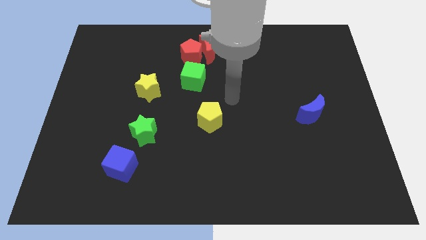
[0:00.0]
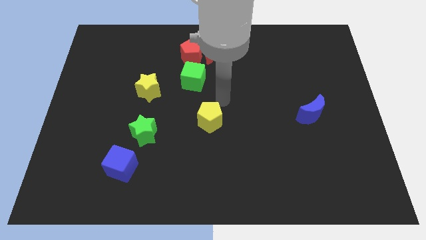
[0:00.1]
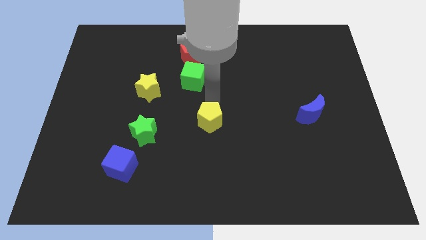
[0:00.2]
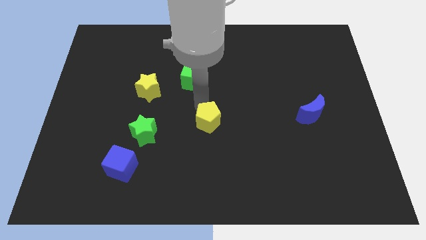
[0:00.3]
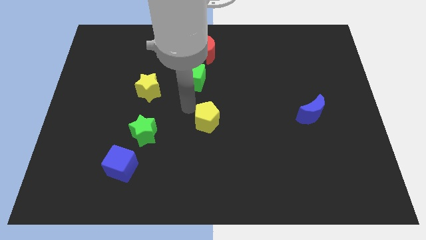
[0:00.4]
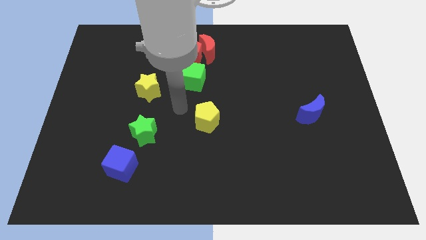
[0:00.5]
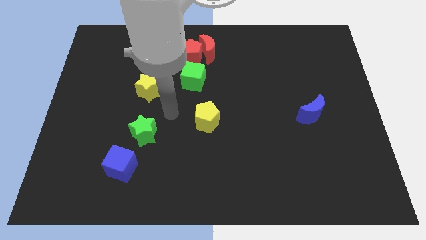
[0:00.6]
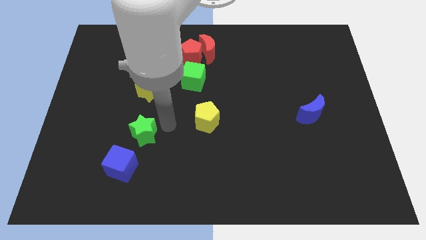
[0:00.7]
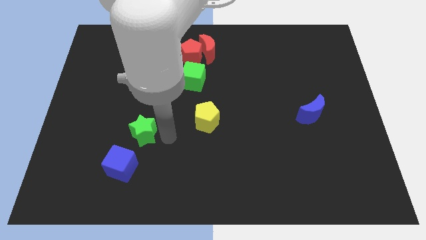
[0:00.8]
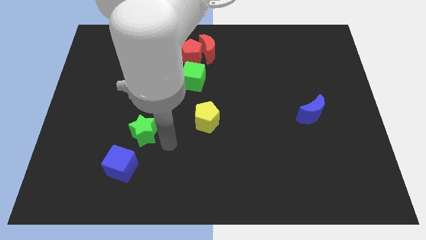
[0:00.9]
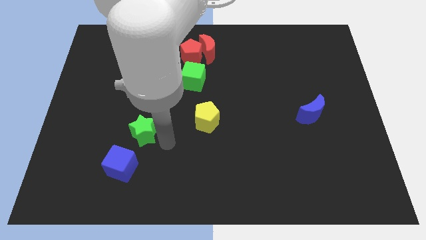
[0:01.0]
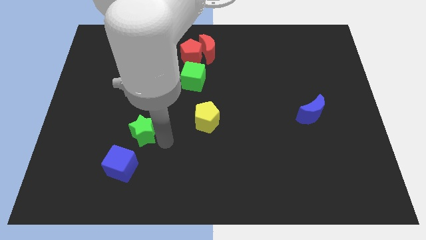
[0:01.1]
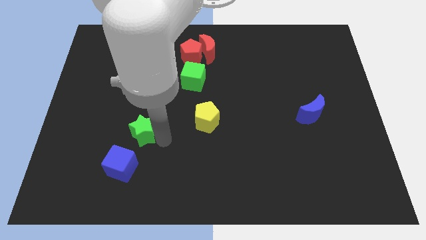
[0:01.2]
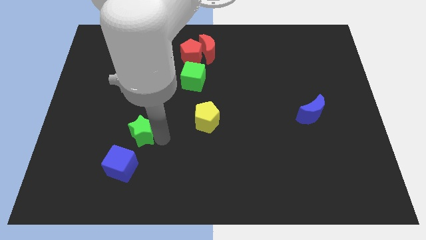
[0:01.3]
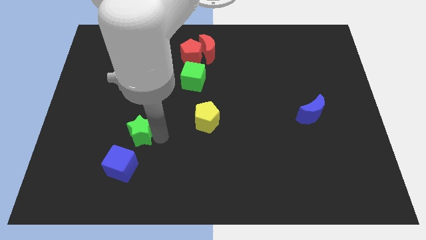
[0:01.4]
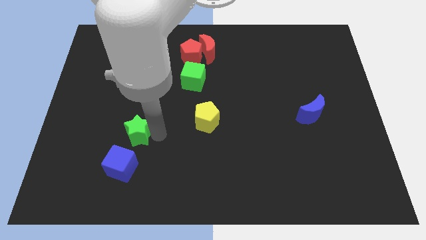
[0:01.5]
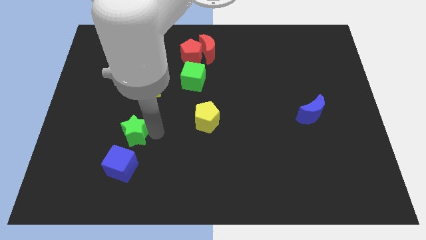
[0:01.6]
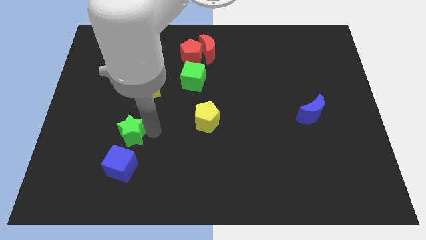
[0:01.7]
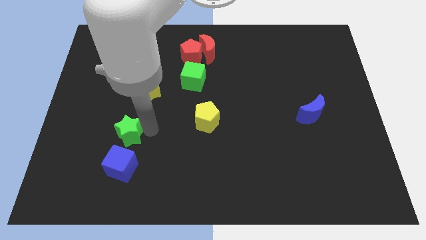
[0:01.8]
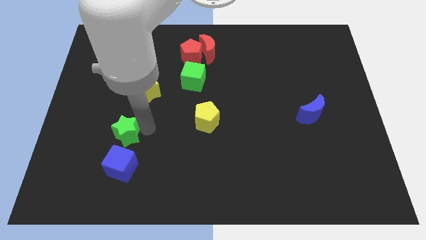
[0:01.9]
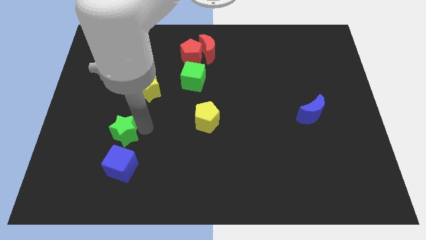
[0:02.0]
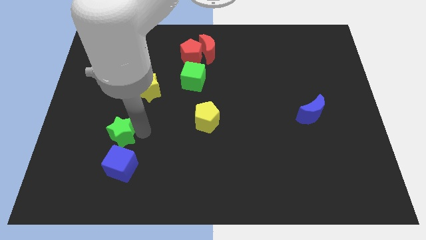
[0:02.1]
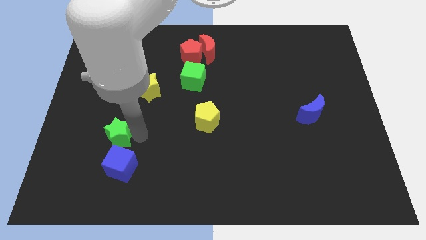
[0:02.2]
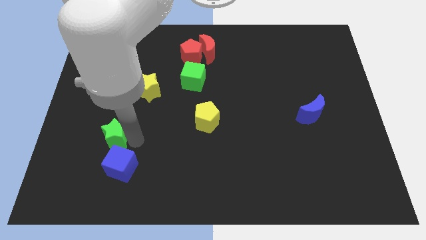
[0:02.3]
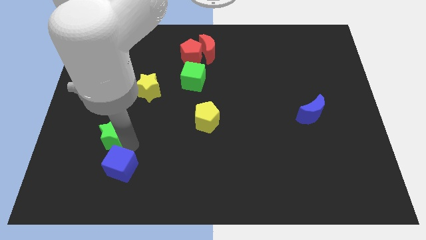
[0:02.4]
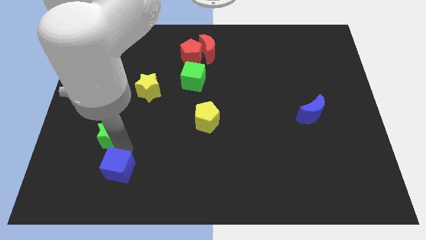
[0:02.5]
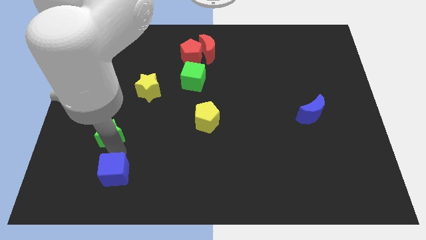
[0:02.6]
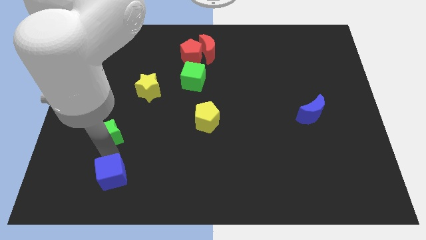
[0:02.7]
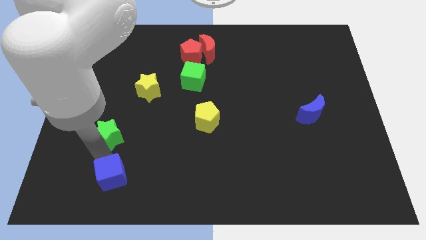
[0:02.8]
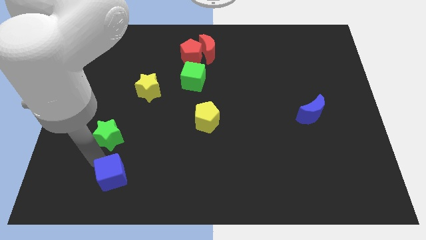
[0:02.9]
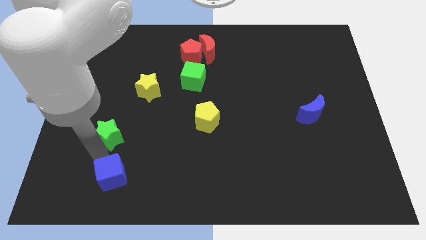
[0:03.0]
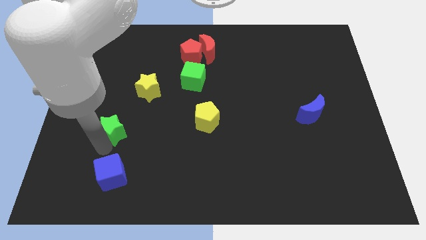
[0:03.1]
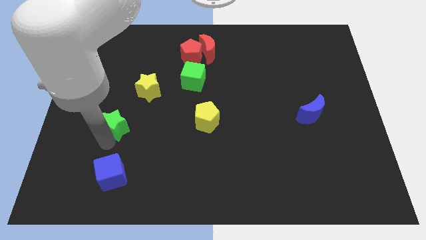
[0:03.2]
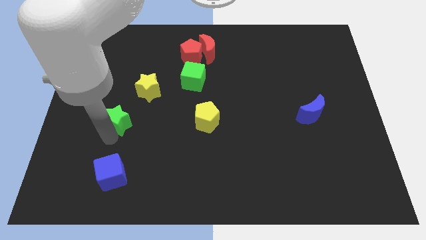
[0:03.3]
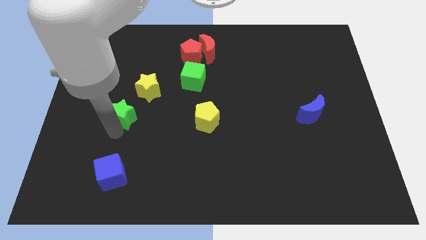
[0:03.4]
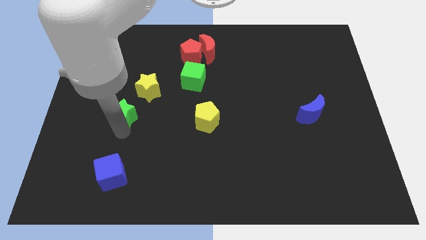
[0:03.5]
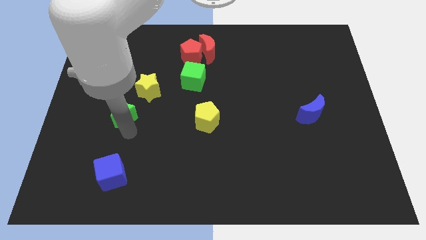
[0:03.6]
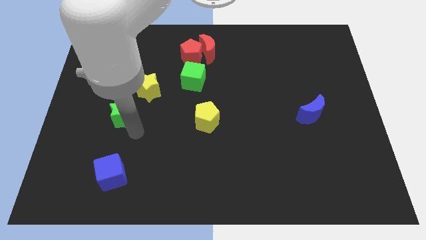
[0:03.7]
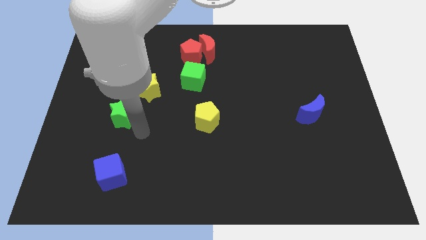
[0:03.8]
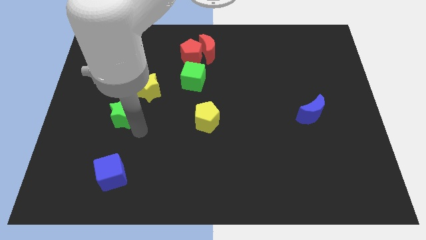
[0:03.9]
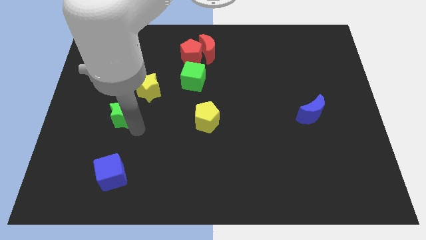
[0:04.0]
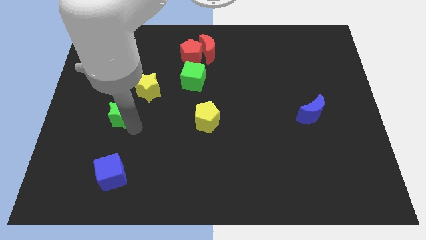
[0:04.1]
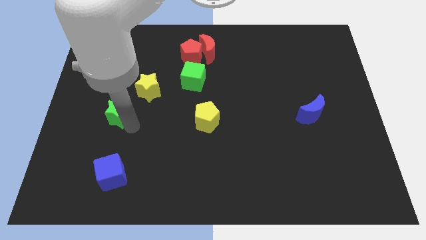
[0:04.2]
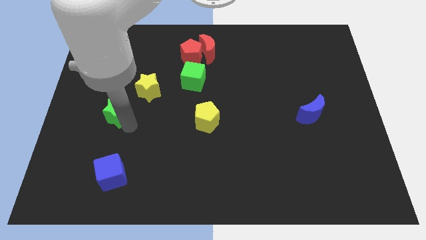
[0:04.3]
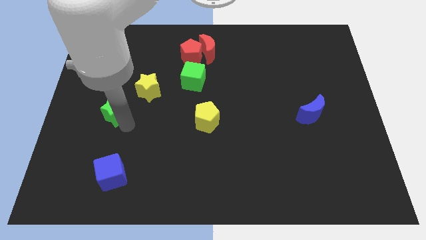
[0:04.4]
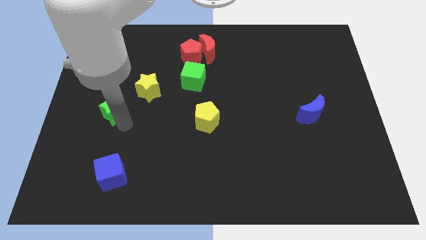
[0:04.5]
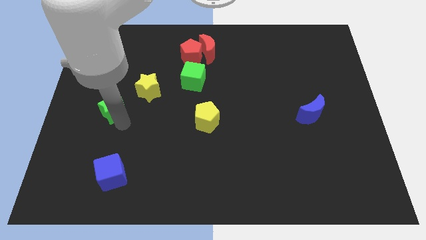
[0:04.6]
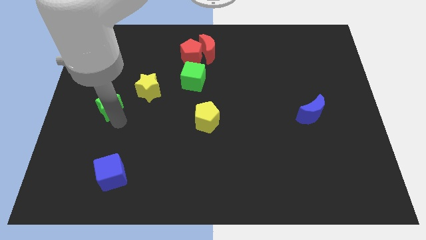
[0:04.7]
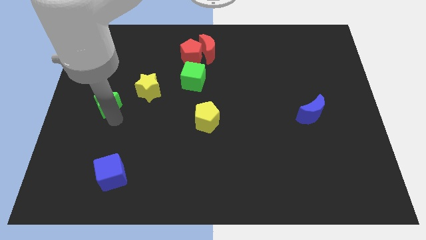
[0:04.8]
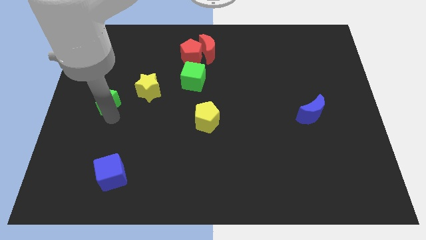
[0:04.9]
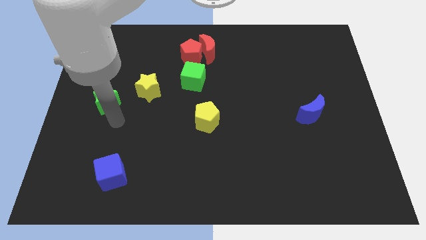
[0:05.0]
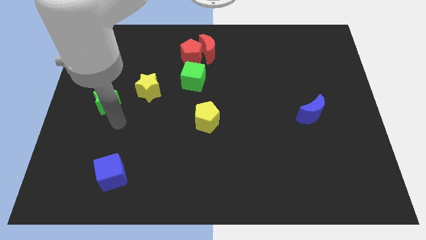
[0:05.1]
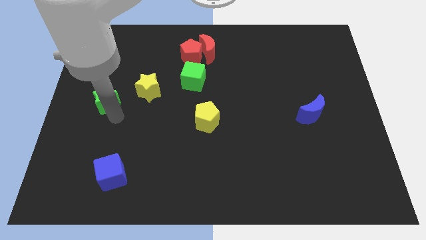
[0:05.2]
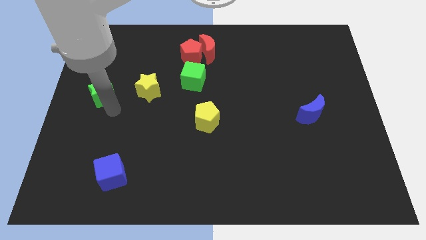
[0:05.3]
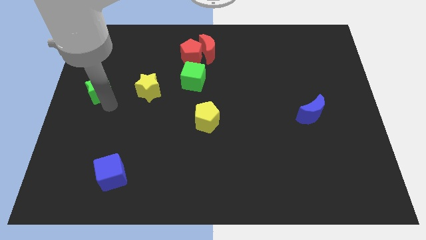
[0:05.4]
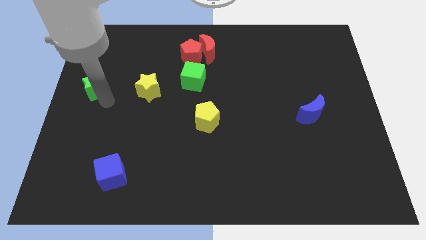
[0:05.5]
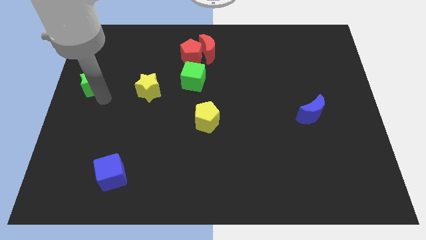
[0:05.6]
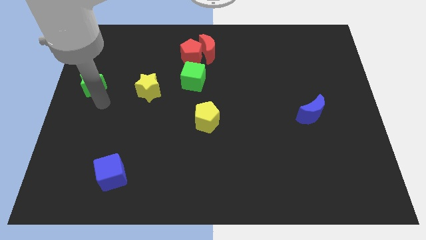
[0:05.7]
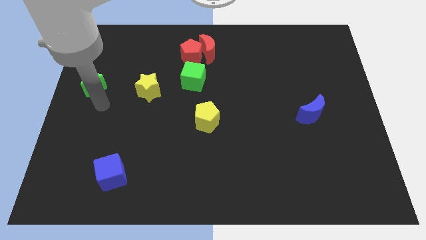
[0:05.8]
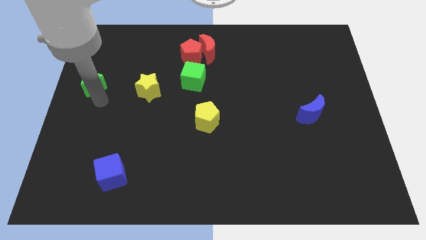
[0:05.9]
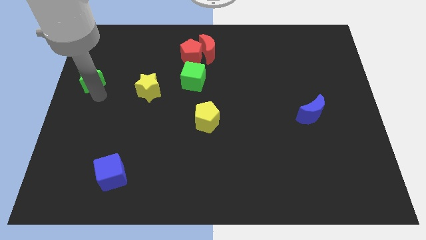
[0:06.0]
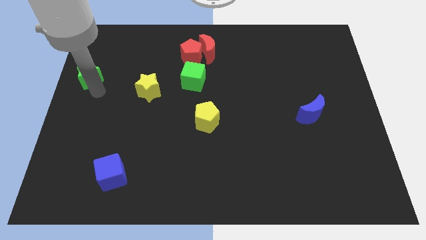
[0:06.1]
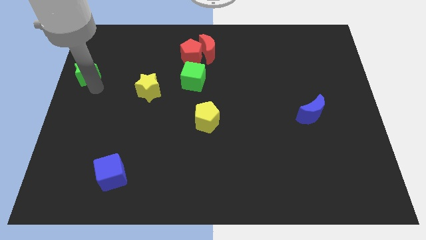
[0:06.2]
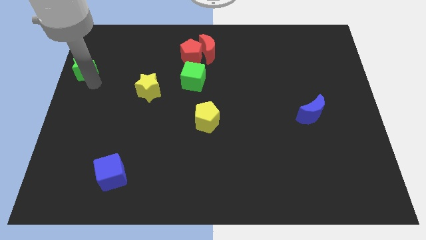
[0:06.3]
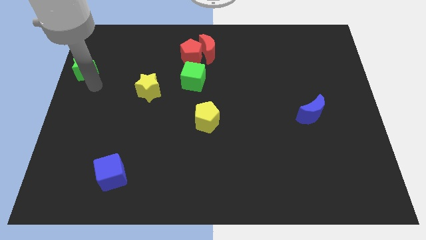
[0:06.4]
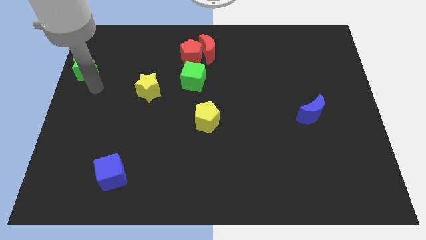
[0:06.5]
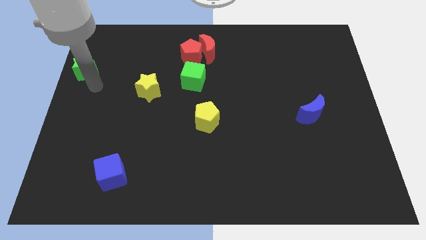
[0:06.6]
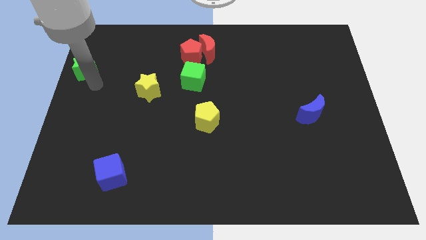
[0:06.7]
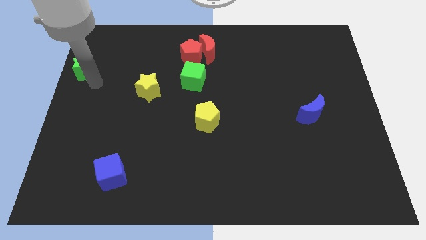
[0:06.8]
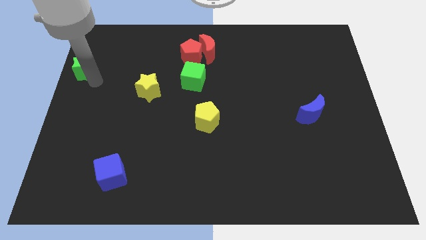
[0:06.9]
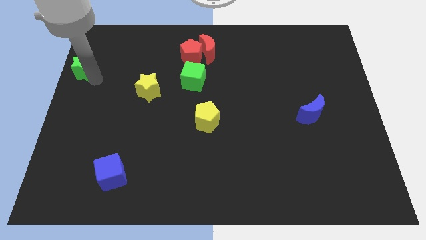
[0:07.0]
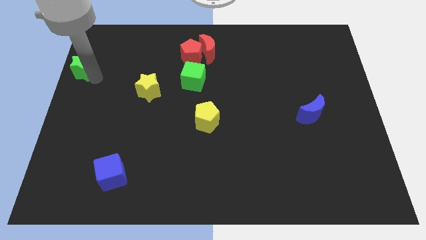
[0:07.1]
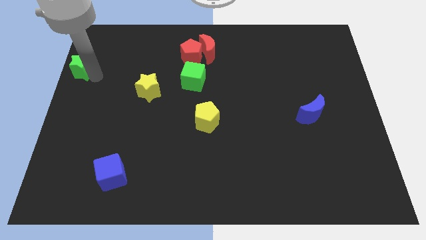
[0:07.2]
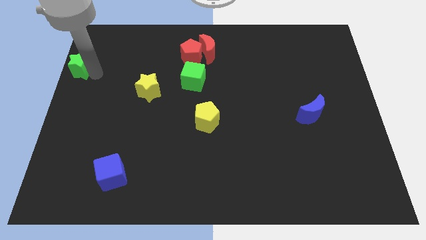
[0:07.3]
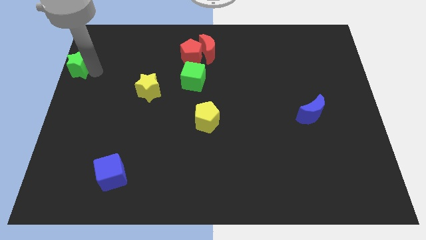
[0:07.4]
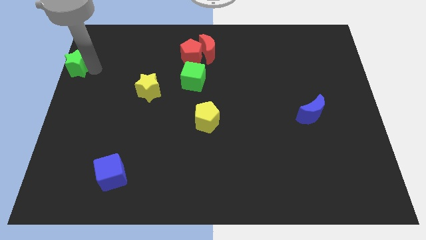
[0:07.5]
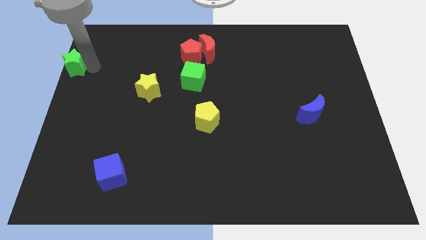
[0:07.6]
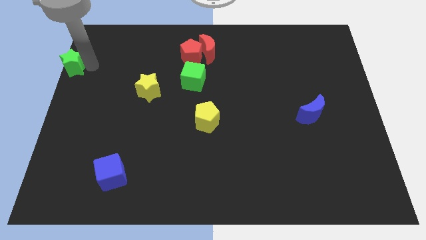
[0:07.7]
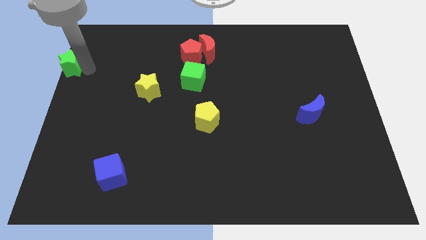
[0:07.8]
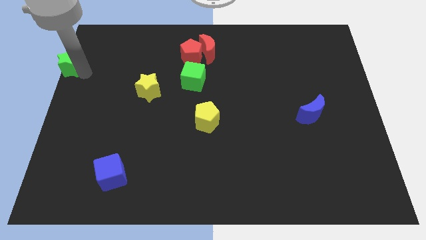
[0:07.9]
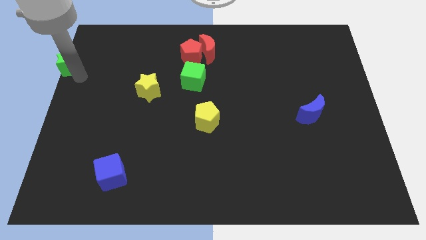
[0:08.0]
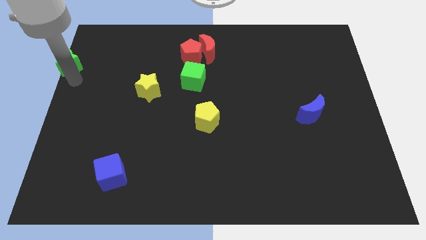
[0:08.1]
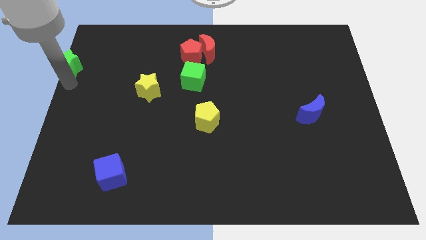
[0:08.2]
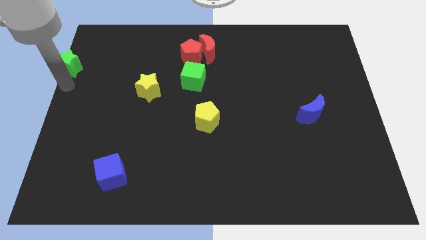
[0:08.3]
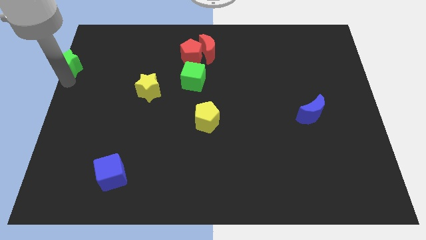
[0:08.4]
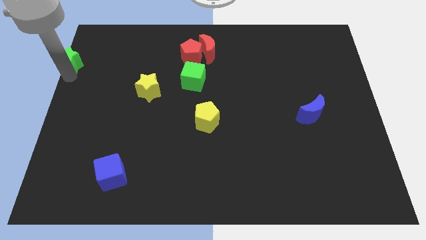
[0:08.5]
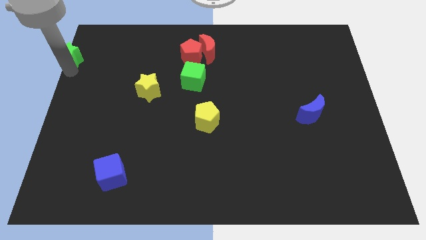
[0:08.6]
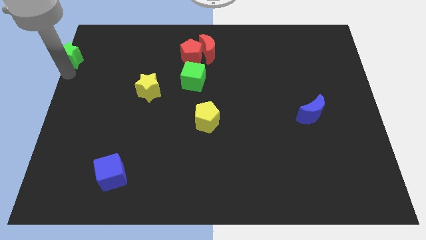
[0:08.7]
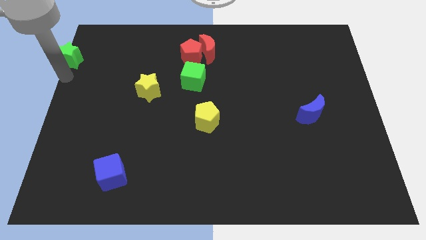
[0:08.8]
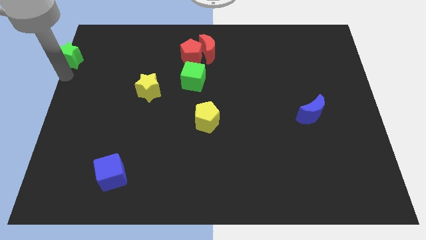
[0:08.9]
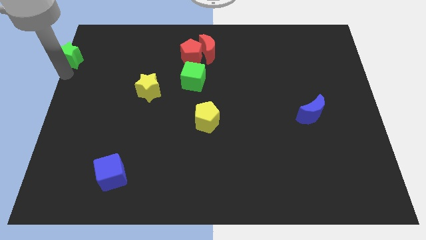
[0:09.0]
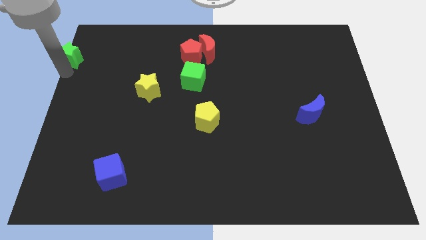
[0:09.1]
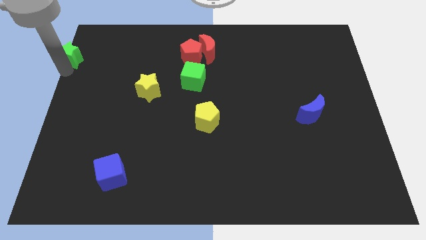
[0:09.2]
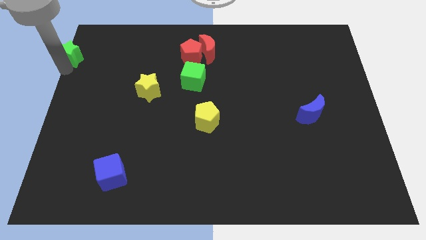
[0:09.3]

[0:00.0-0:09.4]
slide the green star to the upper left corner
